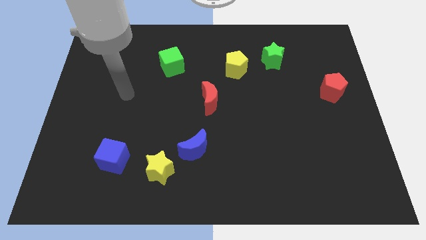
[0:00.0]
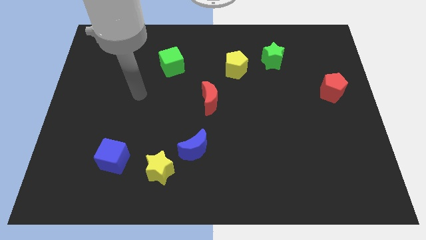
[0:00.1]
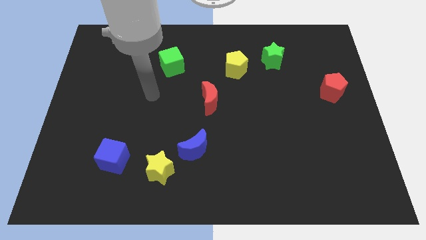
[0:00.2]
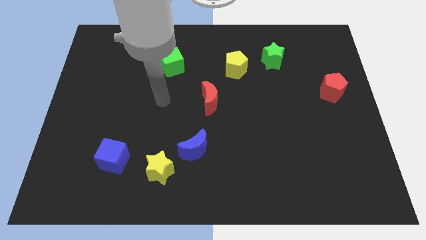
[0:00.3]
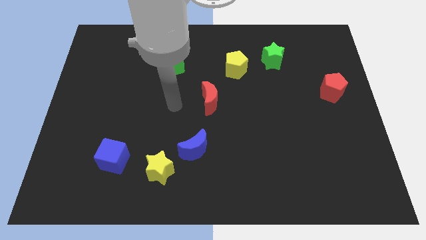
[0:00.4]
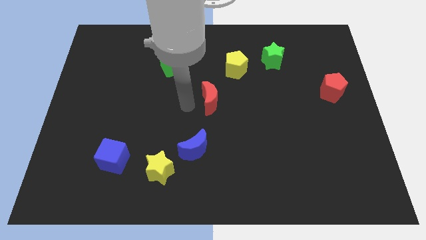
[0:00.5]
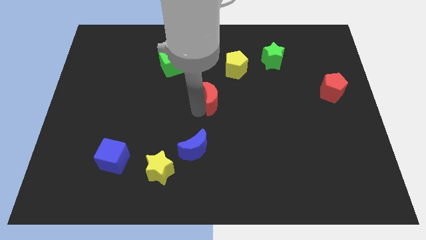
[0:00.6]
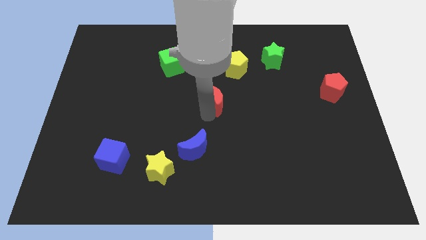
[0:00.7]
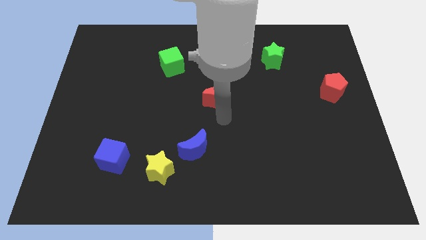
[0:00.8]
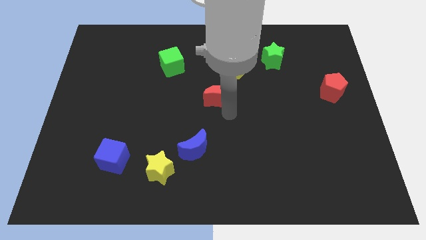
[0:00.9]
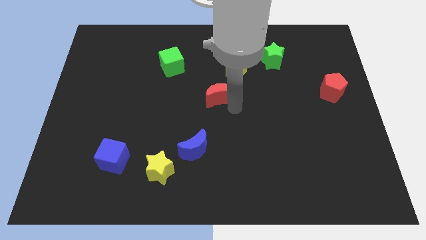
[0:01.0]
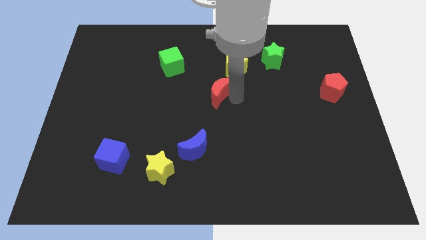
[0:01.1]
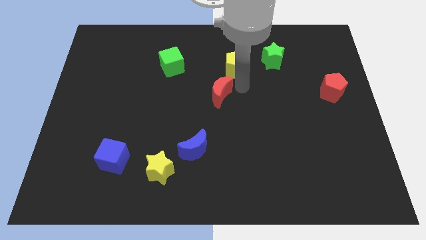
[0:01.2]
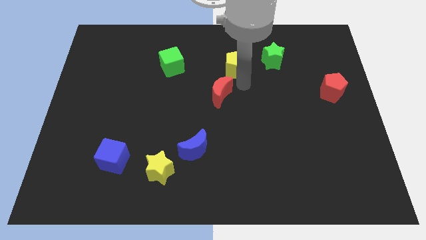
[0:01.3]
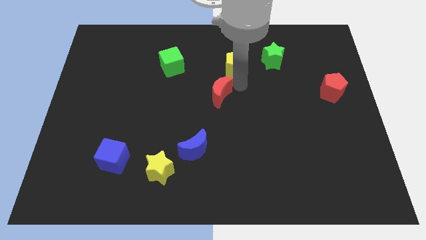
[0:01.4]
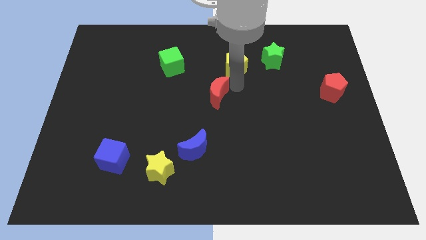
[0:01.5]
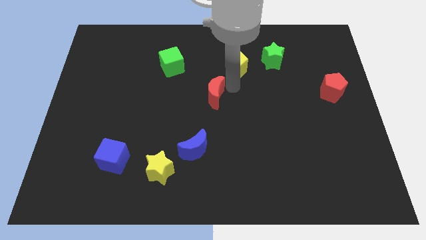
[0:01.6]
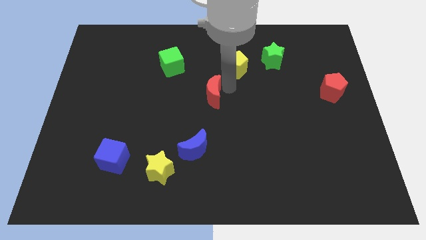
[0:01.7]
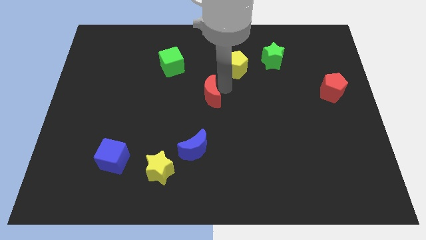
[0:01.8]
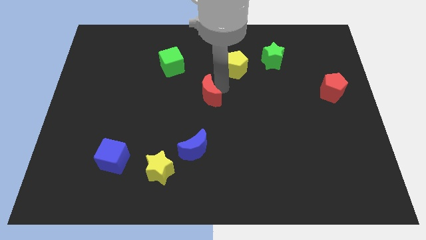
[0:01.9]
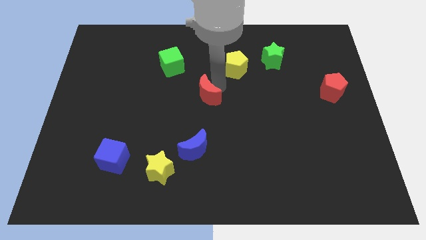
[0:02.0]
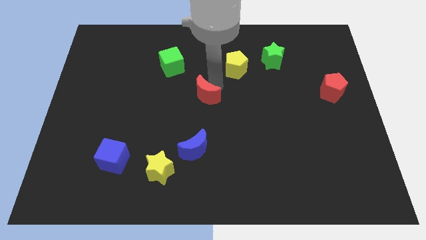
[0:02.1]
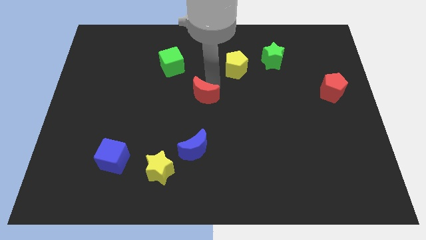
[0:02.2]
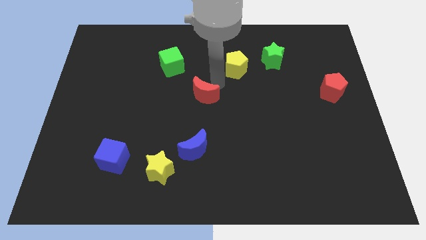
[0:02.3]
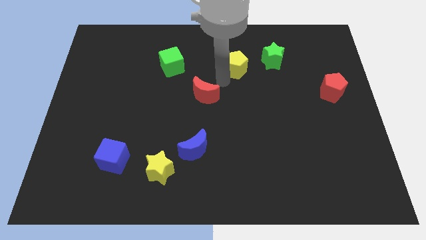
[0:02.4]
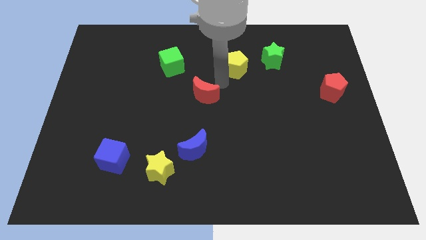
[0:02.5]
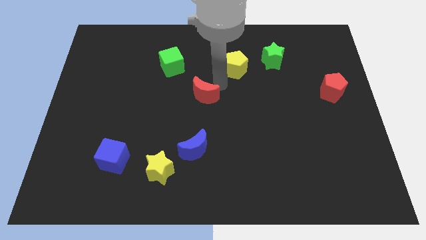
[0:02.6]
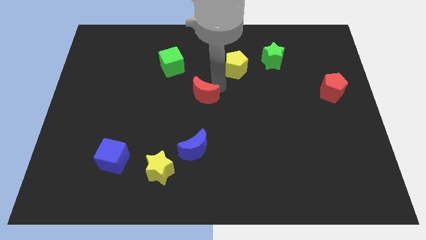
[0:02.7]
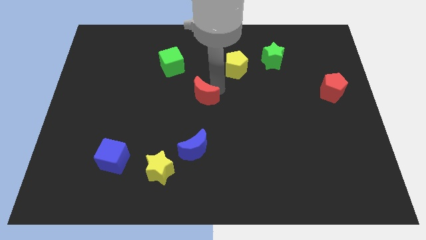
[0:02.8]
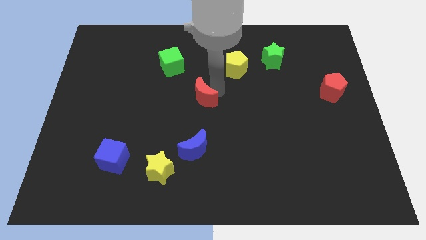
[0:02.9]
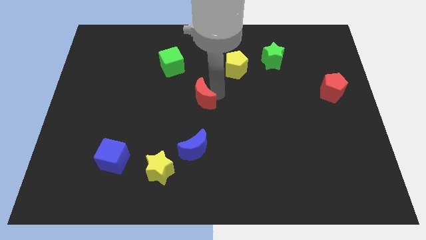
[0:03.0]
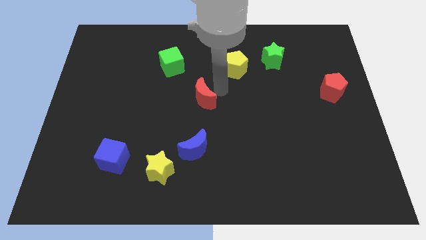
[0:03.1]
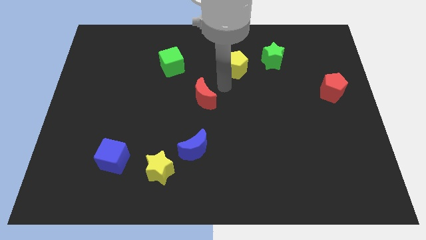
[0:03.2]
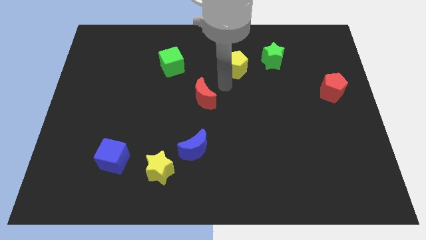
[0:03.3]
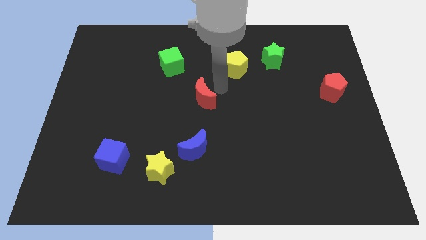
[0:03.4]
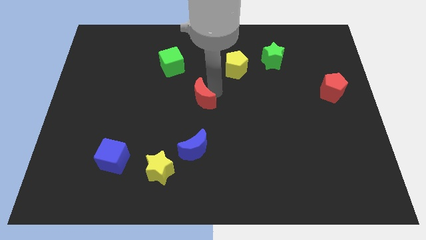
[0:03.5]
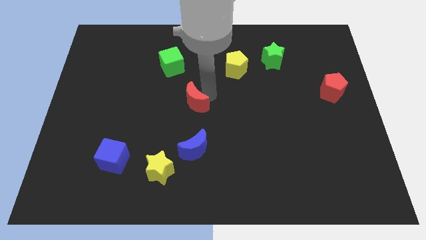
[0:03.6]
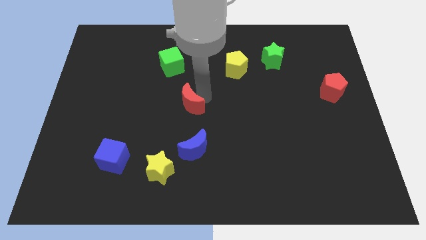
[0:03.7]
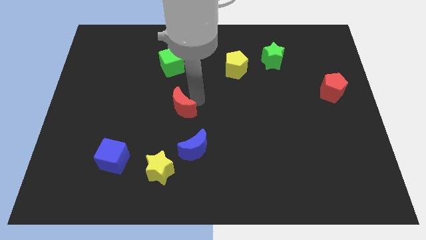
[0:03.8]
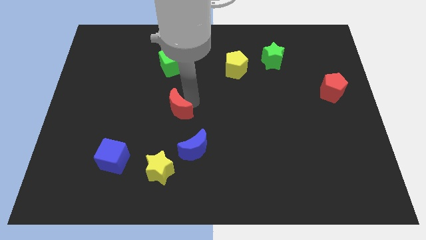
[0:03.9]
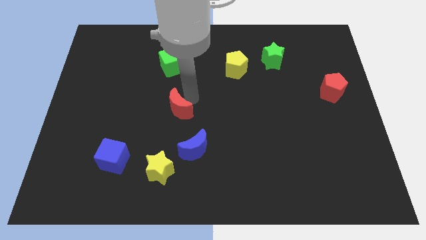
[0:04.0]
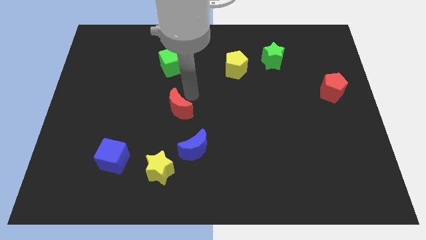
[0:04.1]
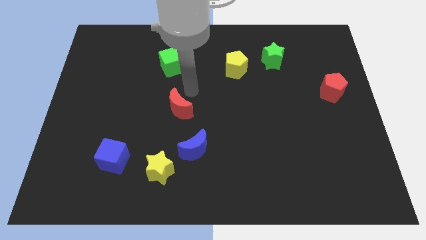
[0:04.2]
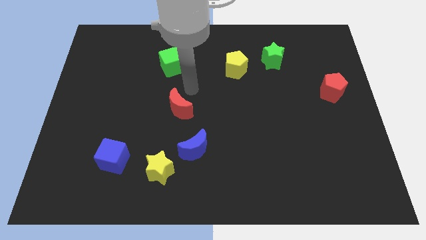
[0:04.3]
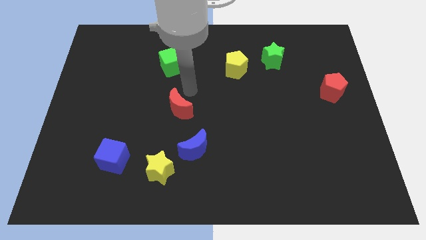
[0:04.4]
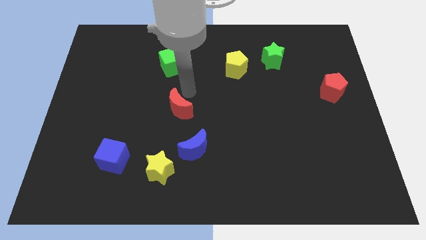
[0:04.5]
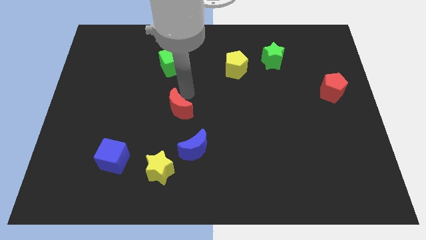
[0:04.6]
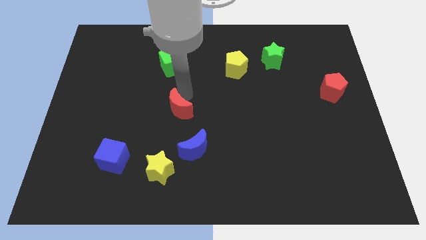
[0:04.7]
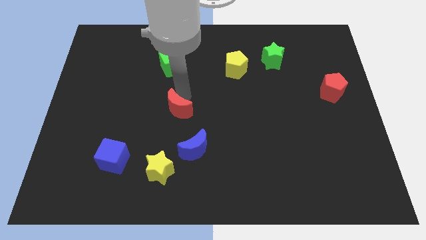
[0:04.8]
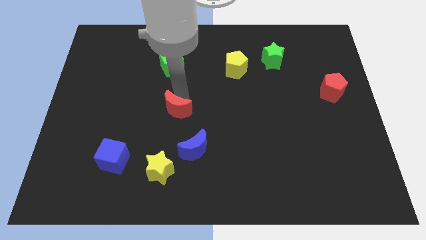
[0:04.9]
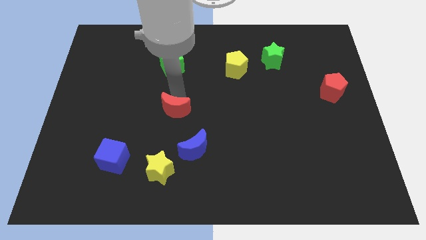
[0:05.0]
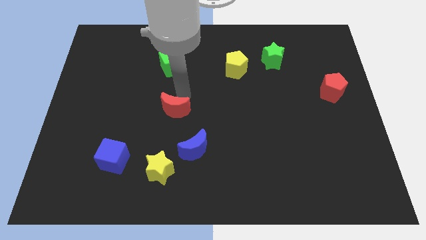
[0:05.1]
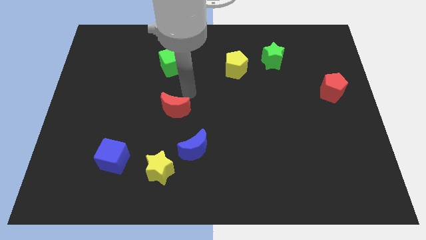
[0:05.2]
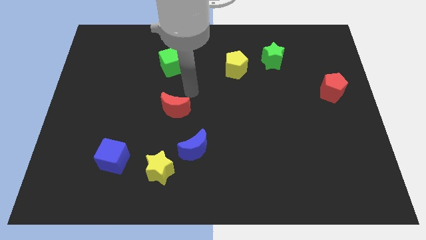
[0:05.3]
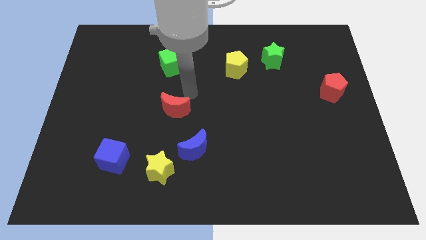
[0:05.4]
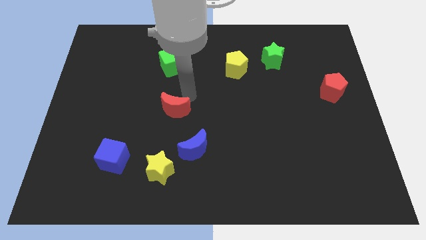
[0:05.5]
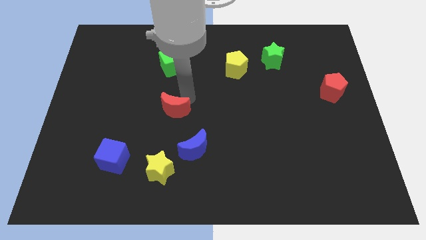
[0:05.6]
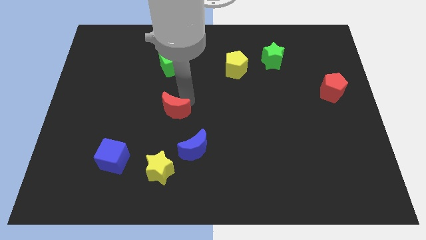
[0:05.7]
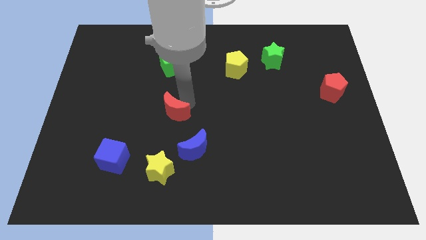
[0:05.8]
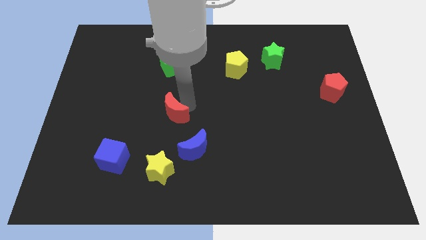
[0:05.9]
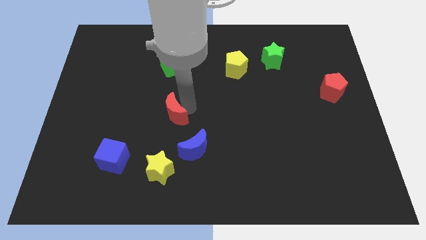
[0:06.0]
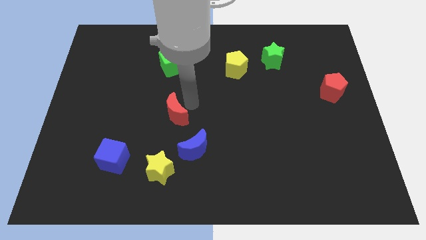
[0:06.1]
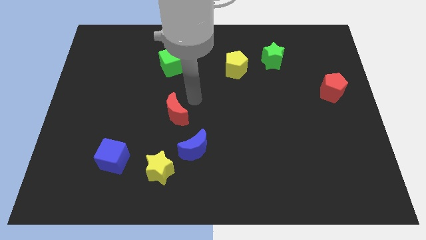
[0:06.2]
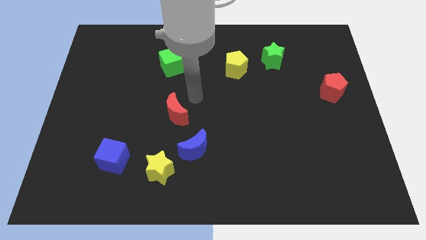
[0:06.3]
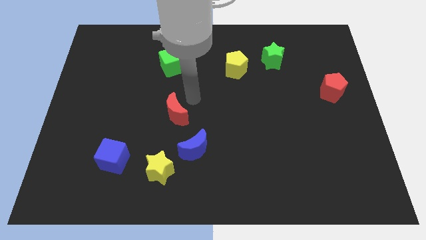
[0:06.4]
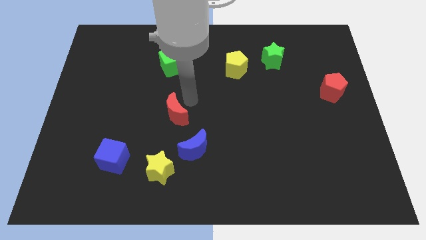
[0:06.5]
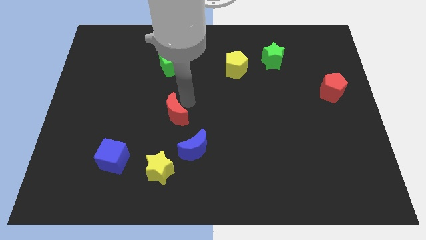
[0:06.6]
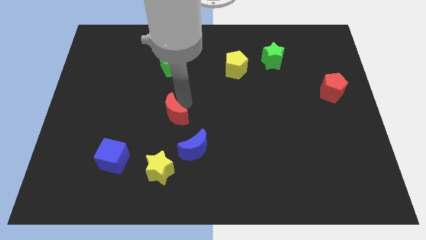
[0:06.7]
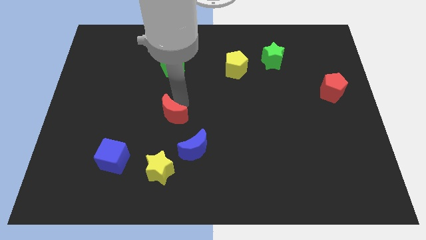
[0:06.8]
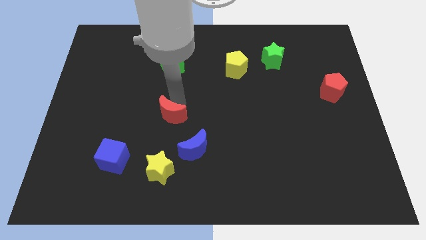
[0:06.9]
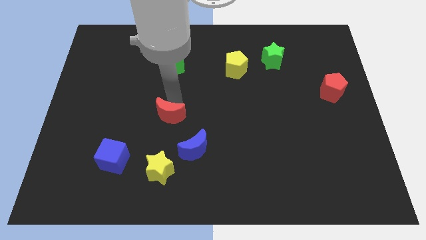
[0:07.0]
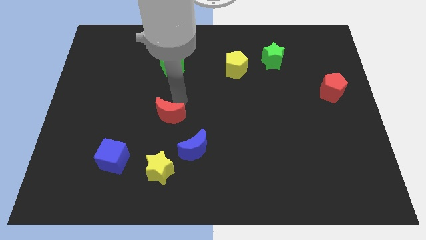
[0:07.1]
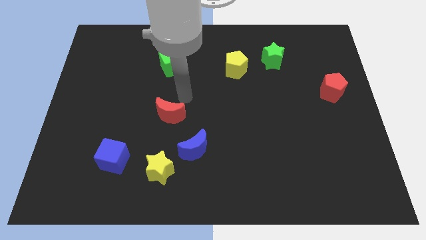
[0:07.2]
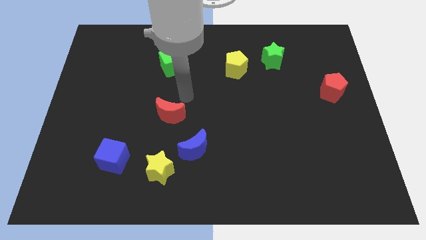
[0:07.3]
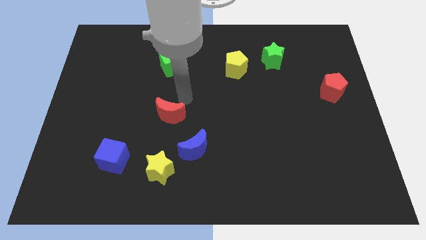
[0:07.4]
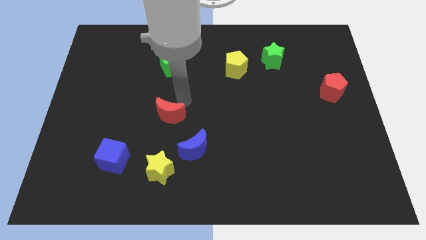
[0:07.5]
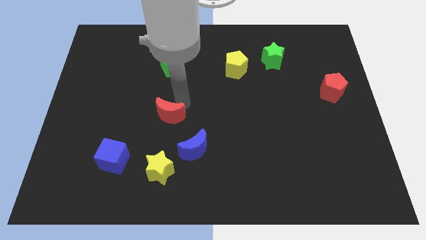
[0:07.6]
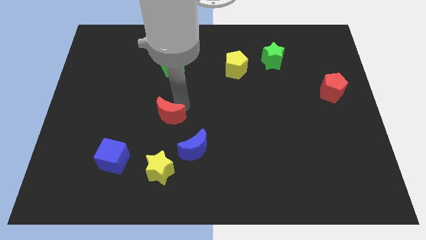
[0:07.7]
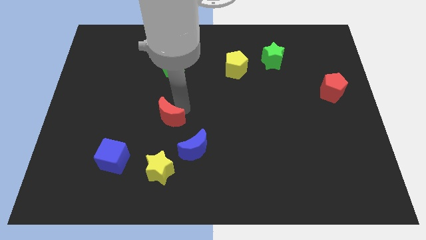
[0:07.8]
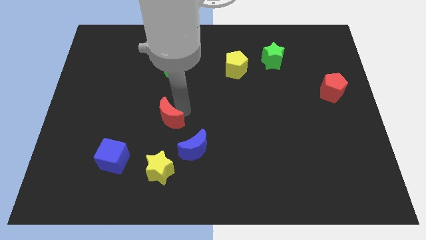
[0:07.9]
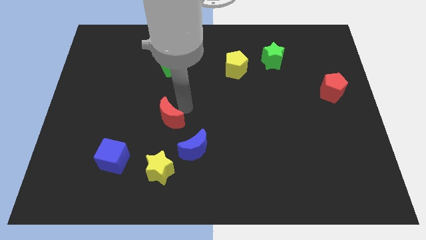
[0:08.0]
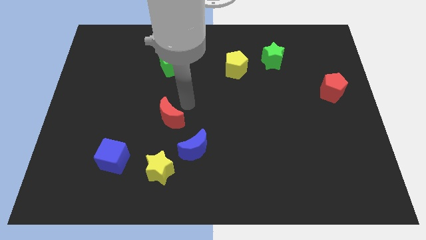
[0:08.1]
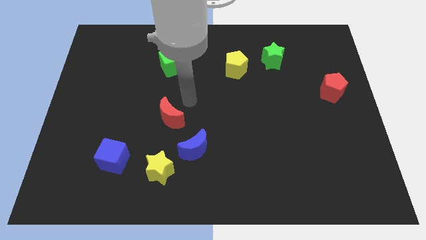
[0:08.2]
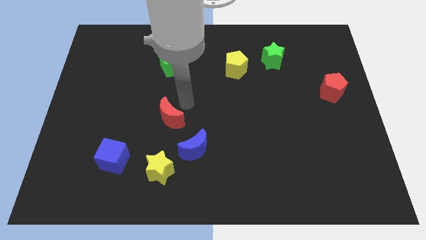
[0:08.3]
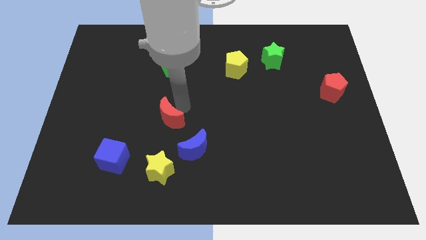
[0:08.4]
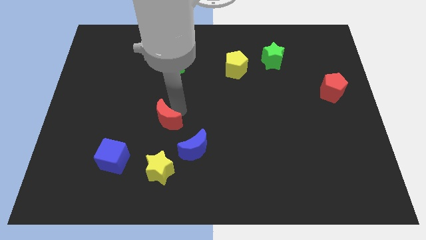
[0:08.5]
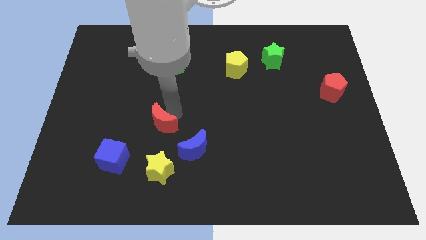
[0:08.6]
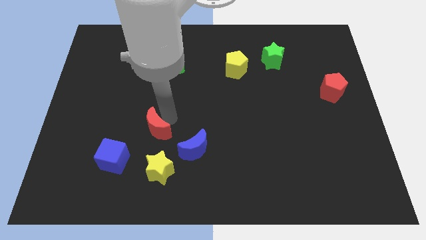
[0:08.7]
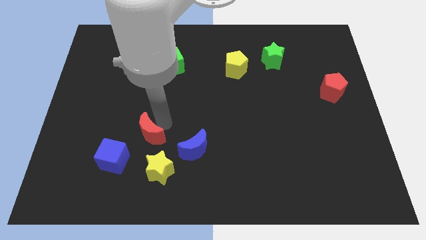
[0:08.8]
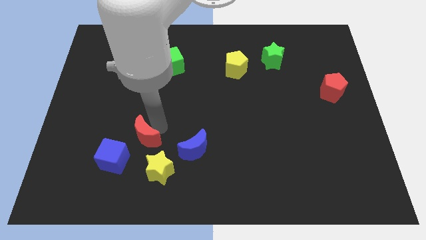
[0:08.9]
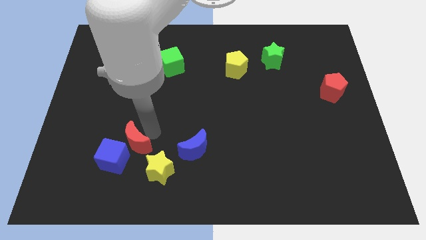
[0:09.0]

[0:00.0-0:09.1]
push the red moon close to the blue cube
